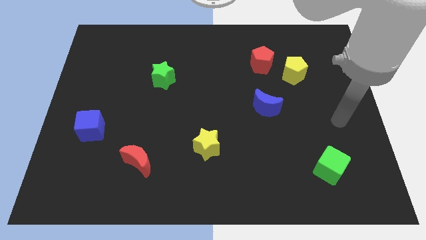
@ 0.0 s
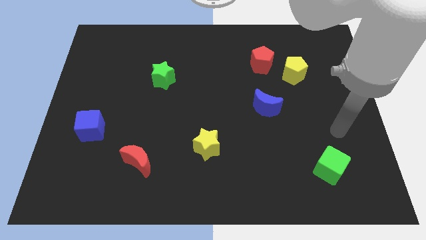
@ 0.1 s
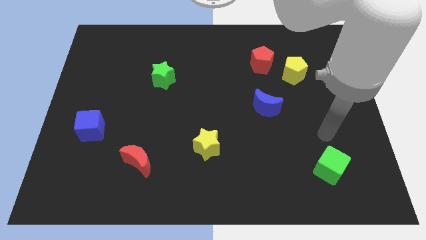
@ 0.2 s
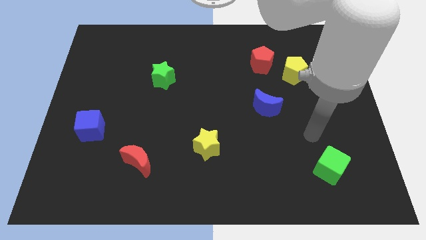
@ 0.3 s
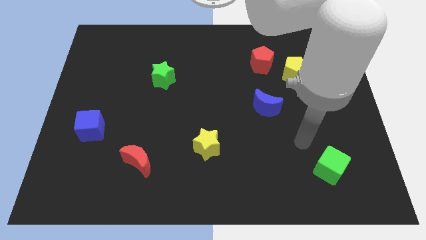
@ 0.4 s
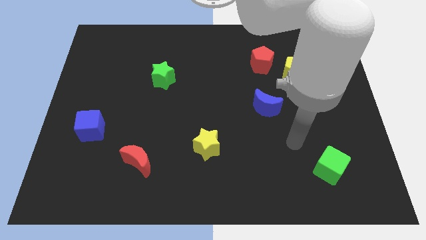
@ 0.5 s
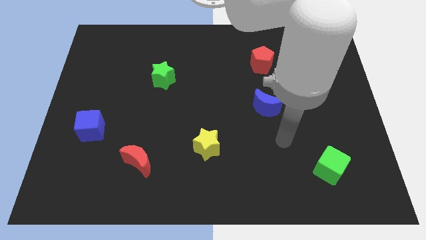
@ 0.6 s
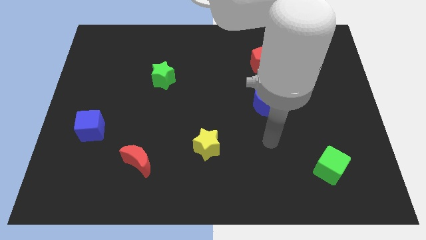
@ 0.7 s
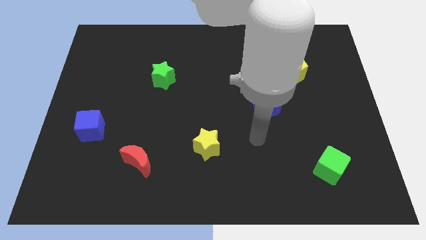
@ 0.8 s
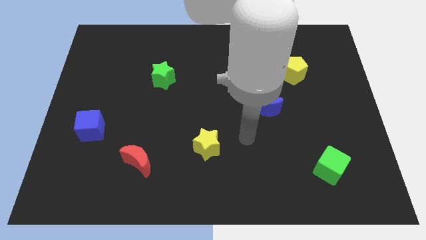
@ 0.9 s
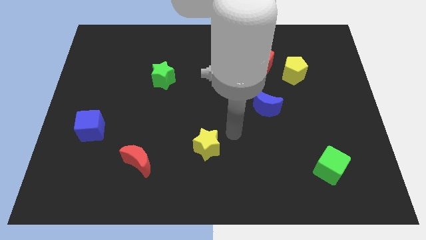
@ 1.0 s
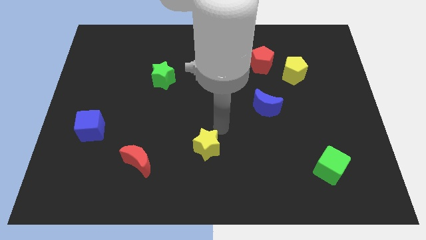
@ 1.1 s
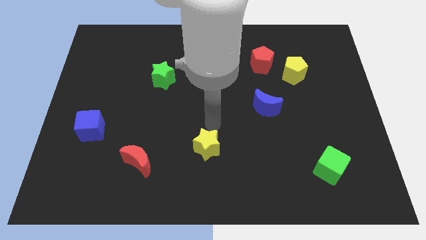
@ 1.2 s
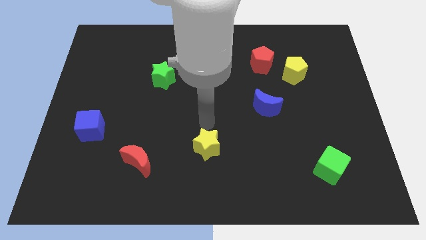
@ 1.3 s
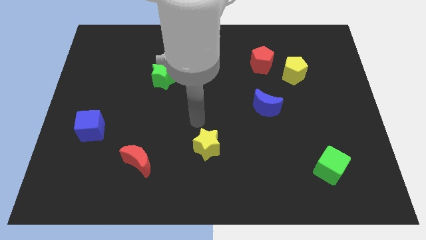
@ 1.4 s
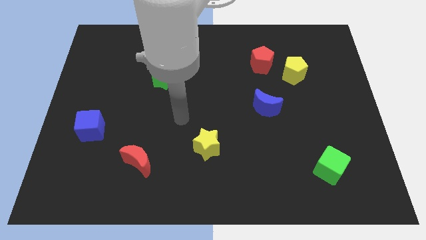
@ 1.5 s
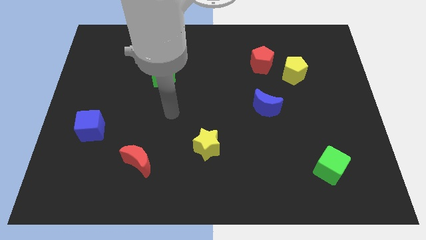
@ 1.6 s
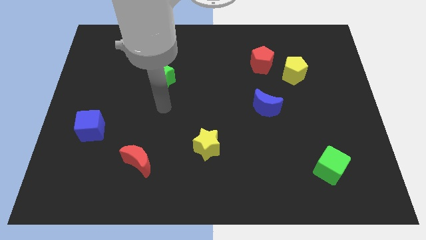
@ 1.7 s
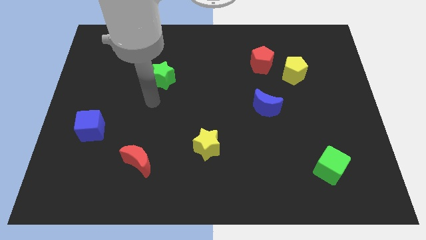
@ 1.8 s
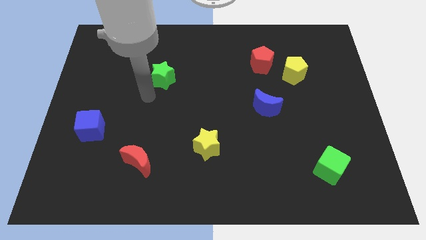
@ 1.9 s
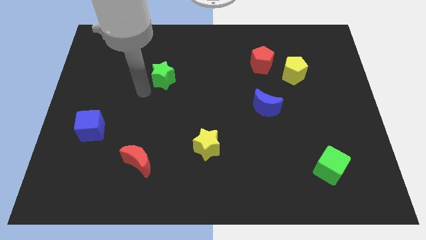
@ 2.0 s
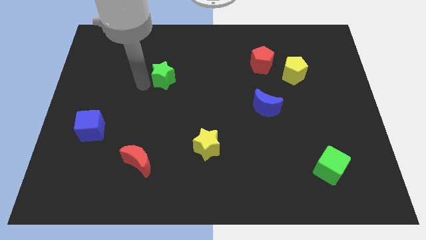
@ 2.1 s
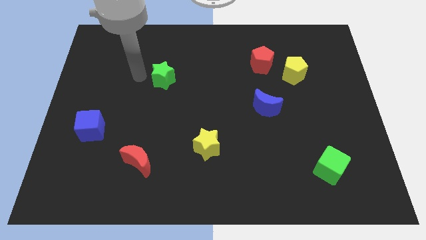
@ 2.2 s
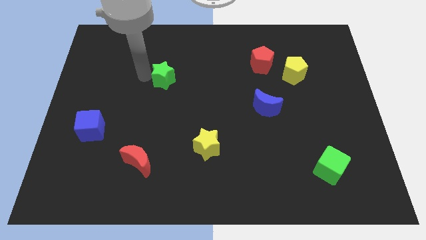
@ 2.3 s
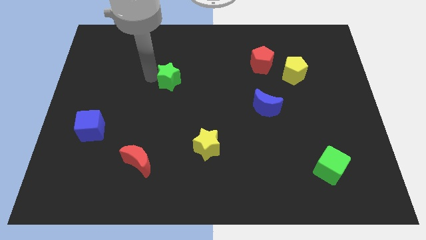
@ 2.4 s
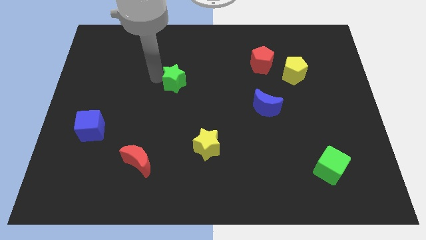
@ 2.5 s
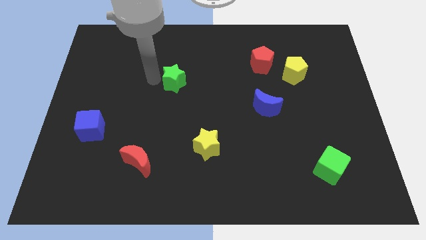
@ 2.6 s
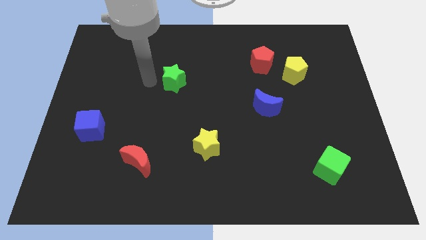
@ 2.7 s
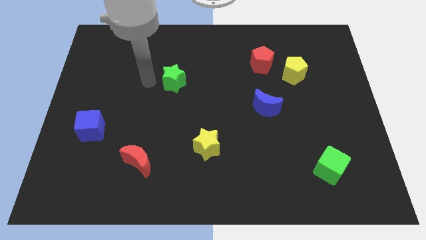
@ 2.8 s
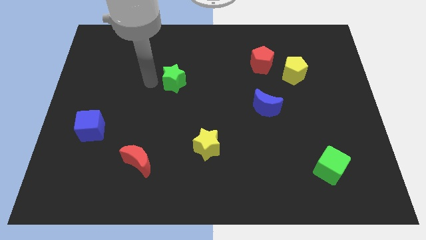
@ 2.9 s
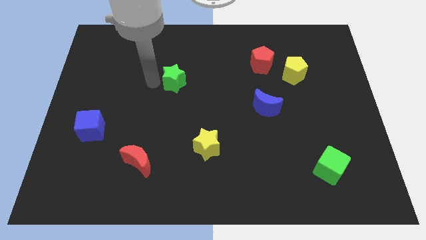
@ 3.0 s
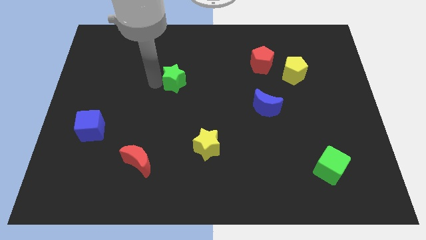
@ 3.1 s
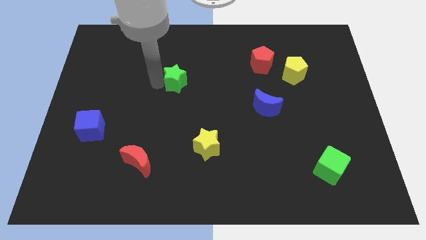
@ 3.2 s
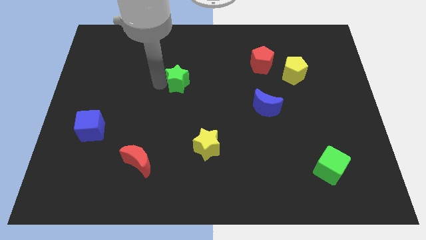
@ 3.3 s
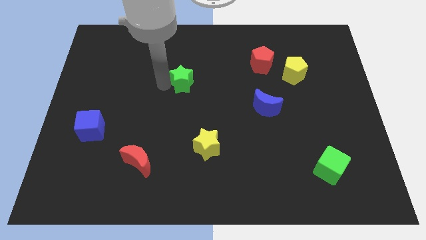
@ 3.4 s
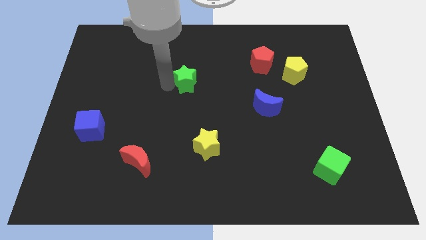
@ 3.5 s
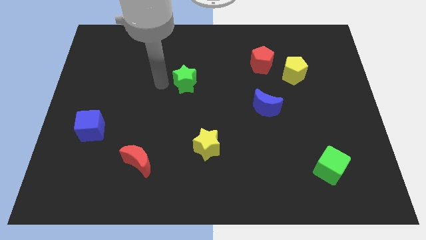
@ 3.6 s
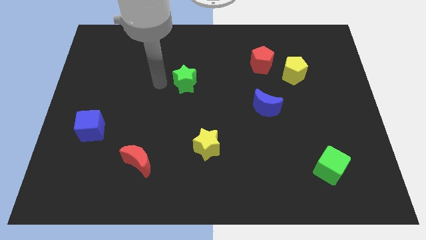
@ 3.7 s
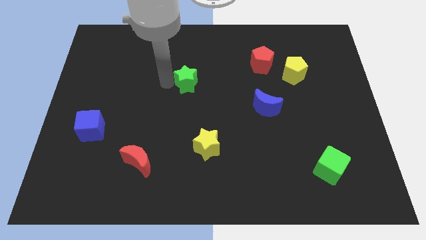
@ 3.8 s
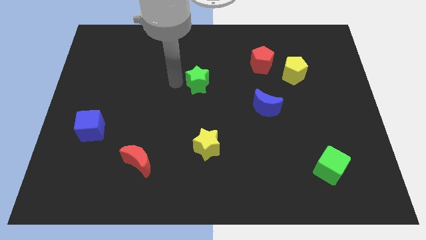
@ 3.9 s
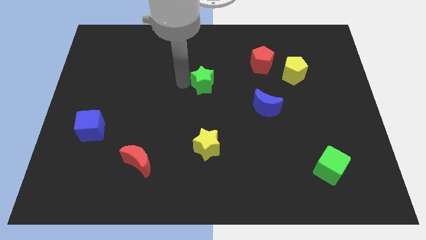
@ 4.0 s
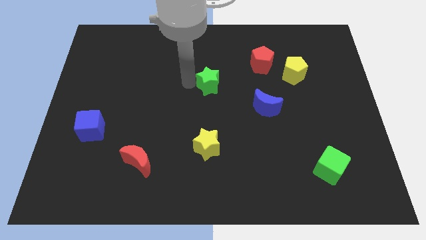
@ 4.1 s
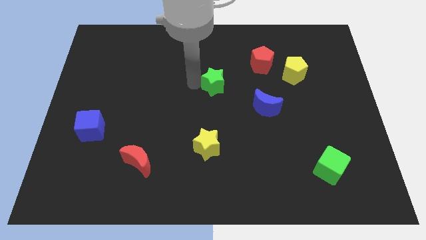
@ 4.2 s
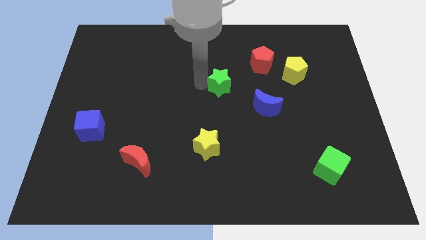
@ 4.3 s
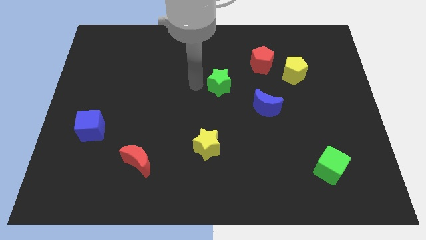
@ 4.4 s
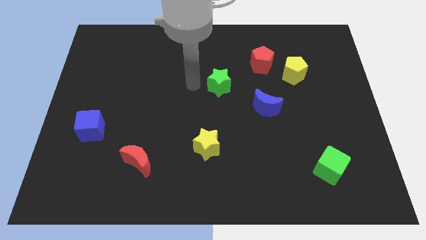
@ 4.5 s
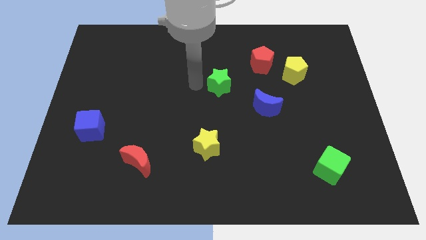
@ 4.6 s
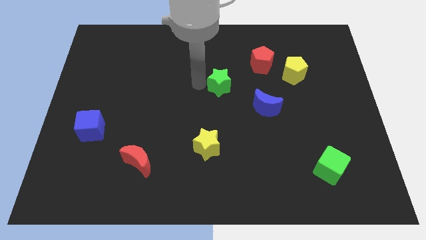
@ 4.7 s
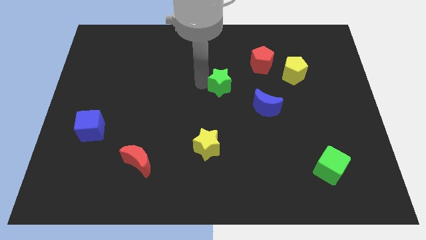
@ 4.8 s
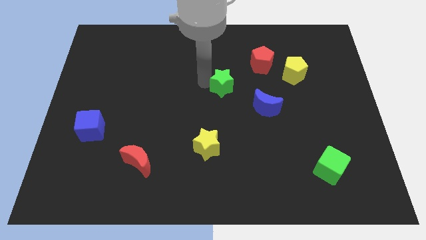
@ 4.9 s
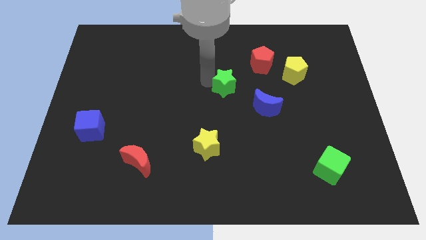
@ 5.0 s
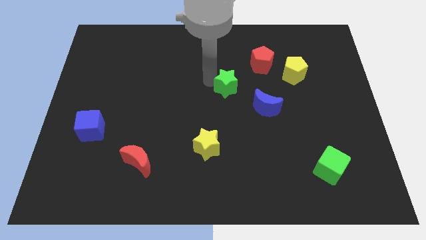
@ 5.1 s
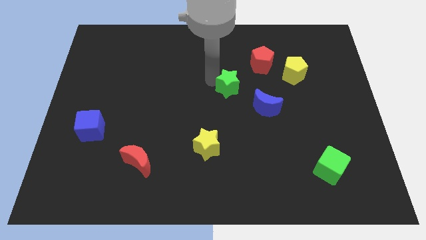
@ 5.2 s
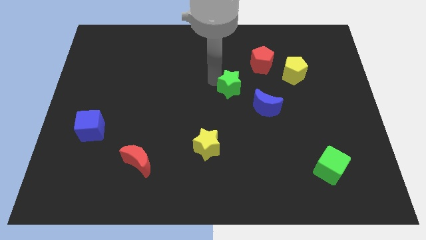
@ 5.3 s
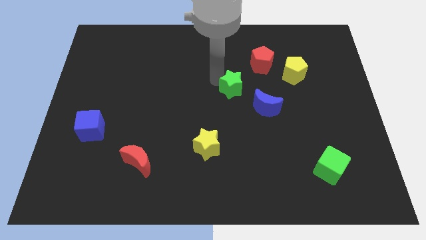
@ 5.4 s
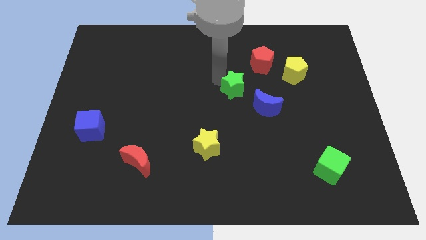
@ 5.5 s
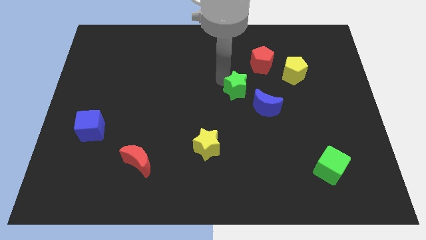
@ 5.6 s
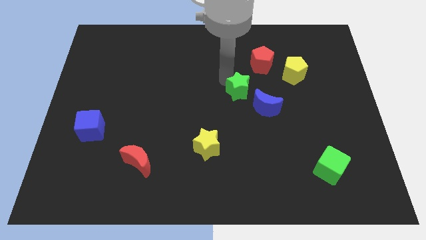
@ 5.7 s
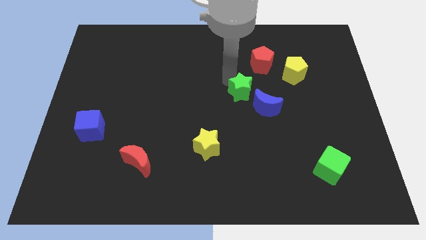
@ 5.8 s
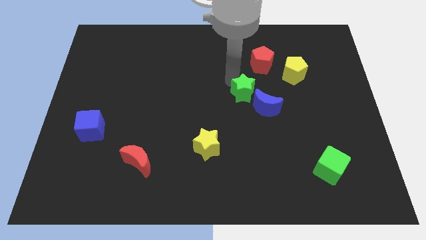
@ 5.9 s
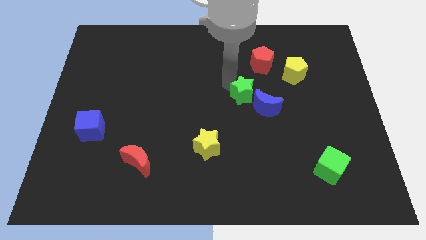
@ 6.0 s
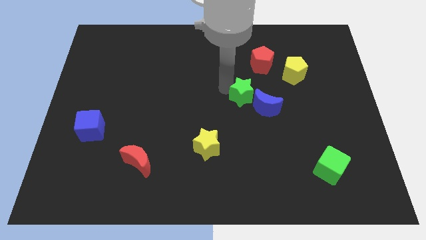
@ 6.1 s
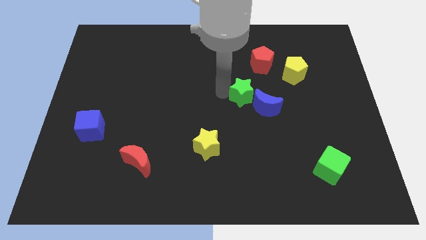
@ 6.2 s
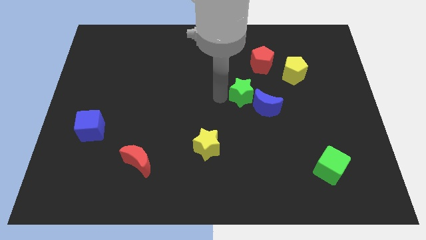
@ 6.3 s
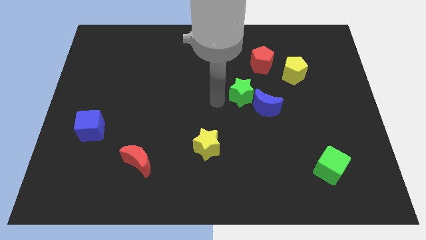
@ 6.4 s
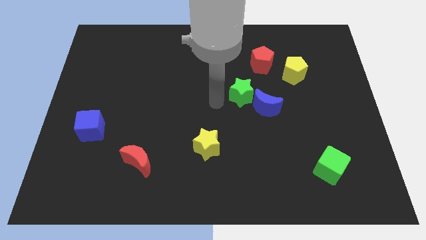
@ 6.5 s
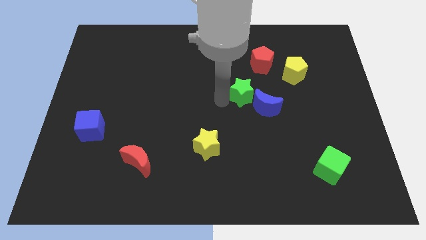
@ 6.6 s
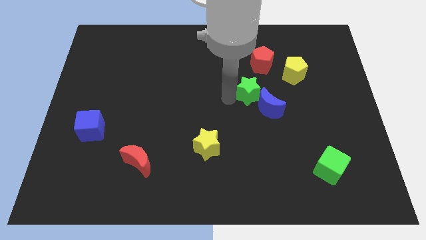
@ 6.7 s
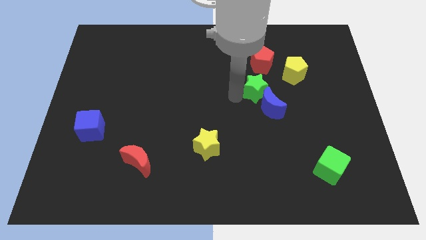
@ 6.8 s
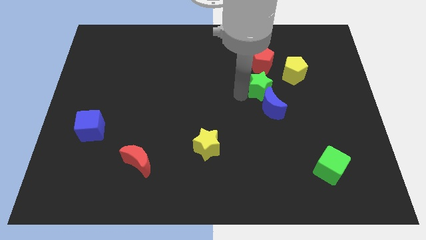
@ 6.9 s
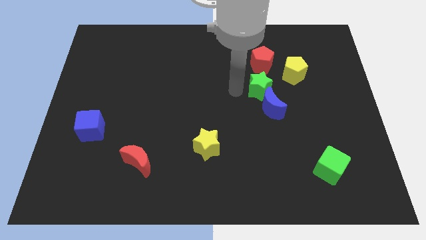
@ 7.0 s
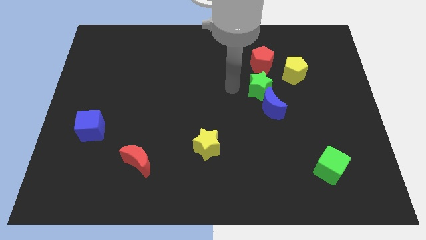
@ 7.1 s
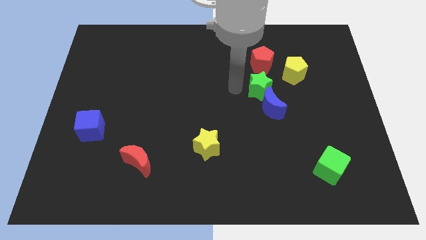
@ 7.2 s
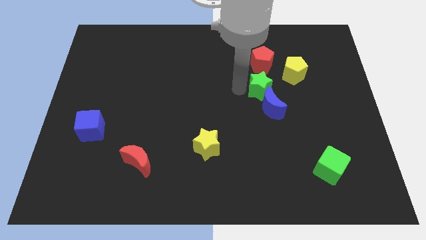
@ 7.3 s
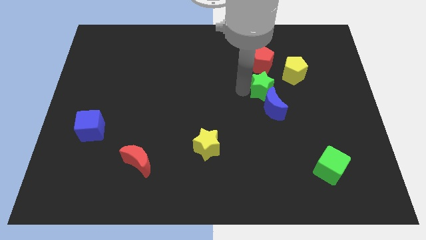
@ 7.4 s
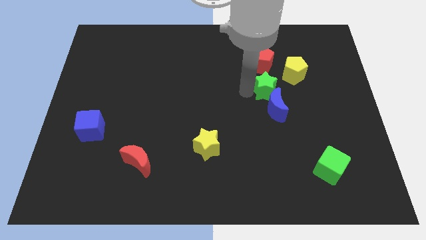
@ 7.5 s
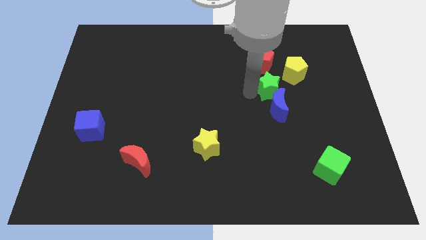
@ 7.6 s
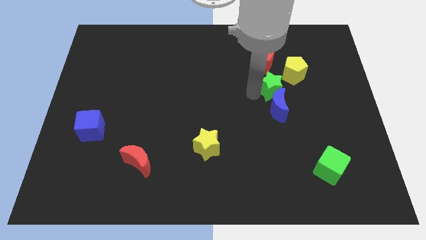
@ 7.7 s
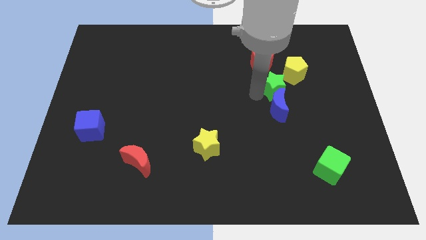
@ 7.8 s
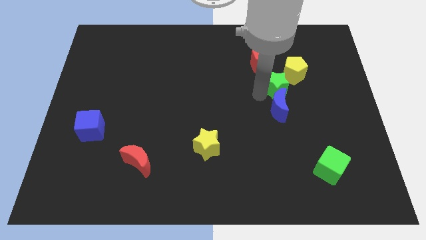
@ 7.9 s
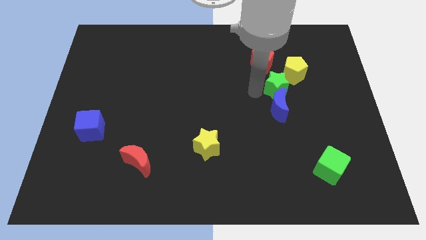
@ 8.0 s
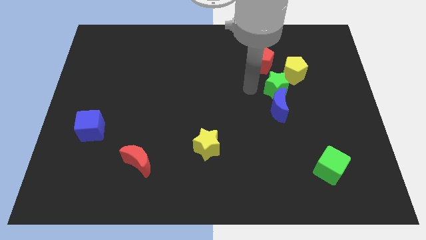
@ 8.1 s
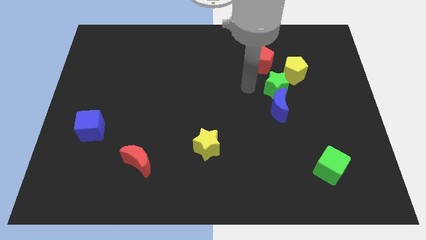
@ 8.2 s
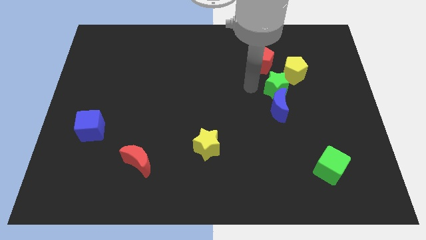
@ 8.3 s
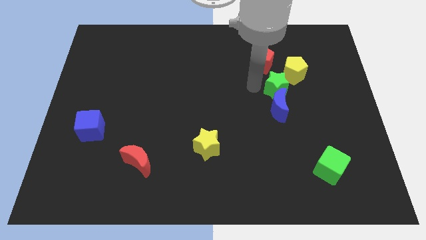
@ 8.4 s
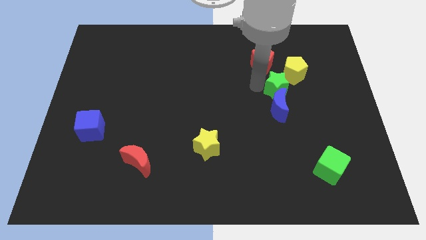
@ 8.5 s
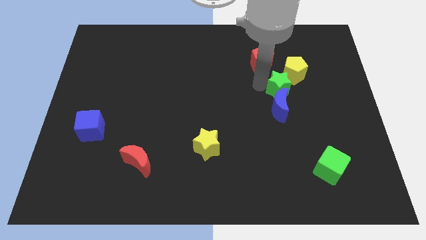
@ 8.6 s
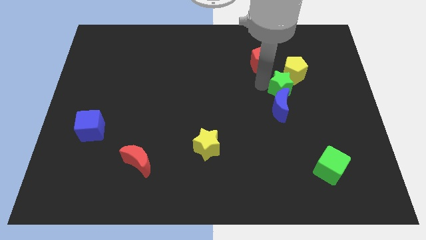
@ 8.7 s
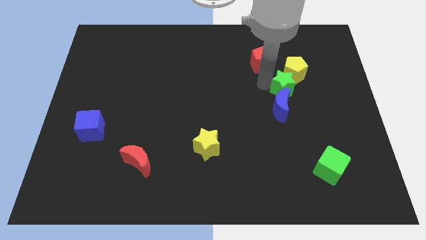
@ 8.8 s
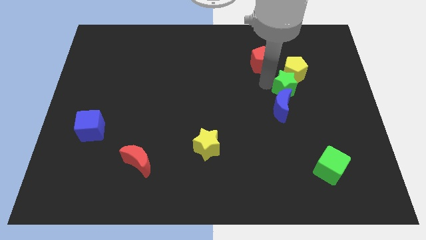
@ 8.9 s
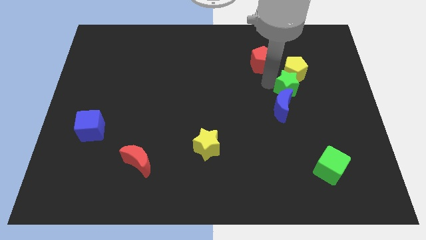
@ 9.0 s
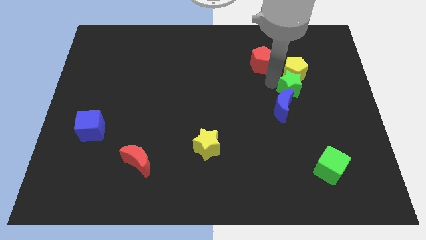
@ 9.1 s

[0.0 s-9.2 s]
push the green star diagonally down and to the right of the yellow pentagon
